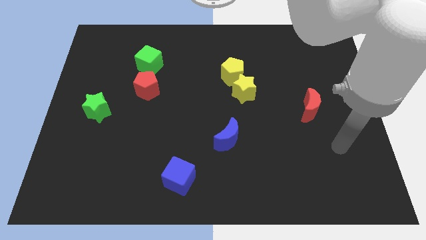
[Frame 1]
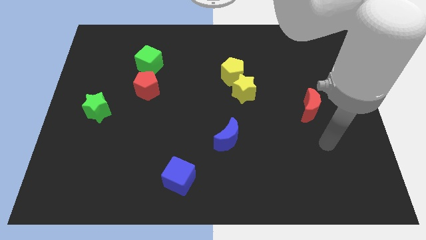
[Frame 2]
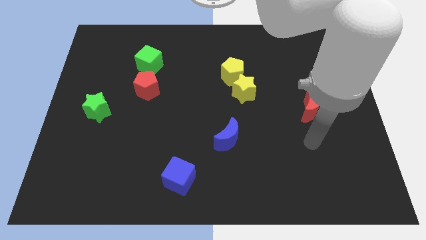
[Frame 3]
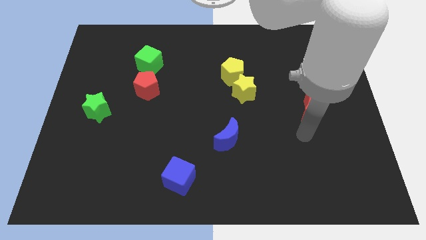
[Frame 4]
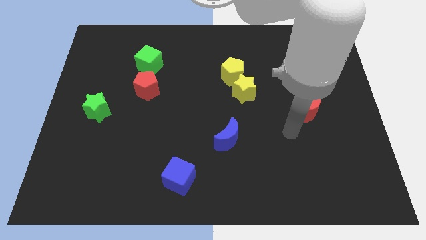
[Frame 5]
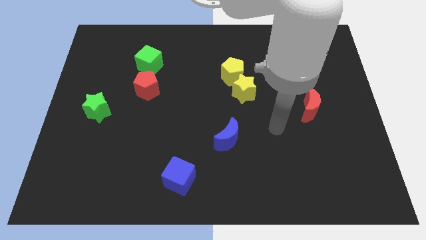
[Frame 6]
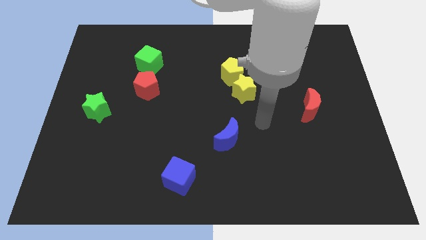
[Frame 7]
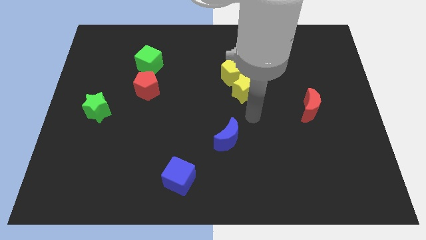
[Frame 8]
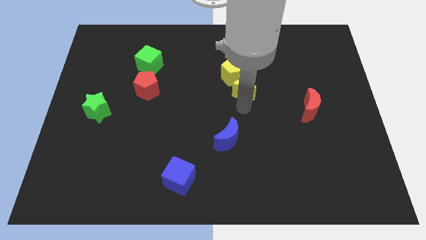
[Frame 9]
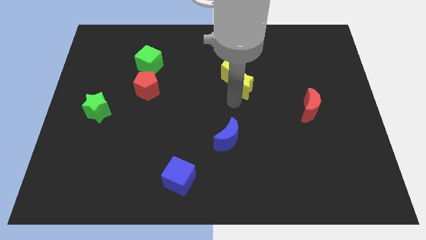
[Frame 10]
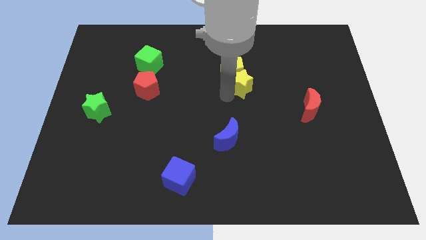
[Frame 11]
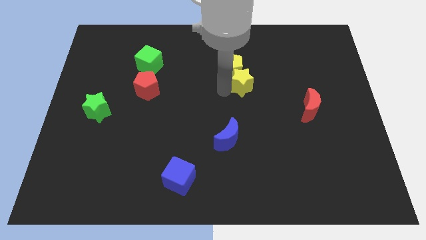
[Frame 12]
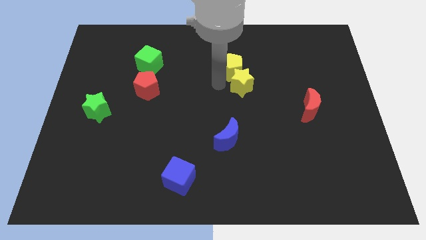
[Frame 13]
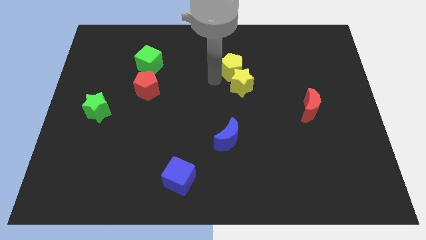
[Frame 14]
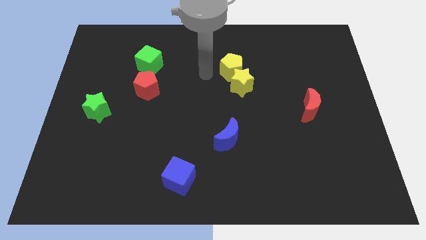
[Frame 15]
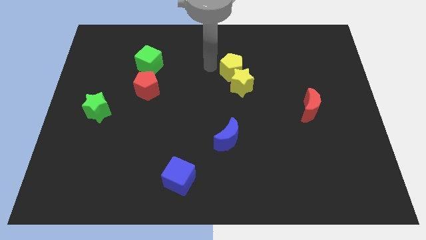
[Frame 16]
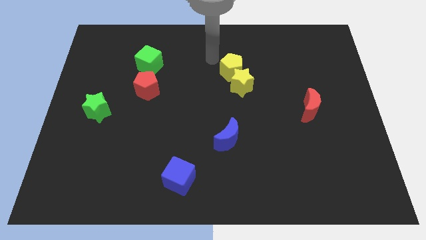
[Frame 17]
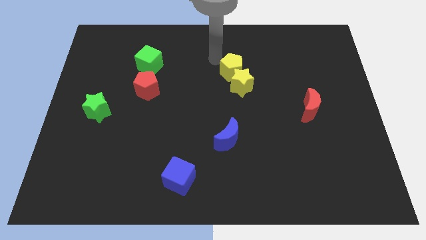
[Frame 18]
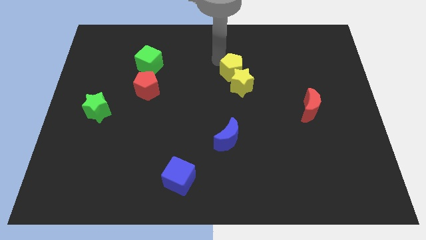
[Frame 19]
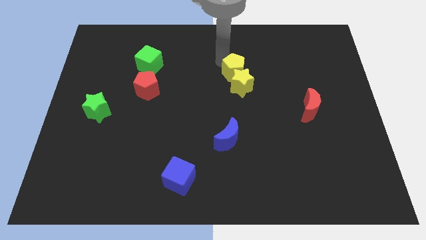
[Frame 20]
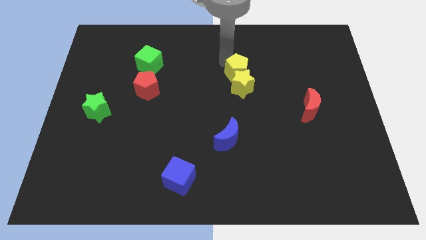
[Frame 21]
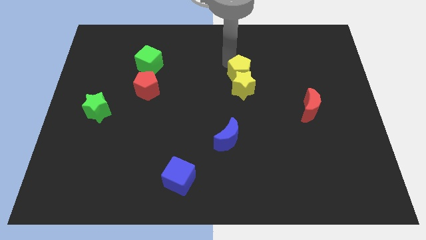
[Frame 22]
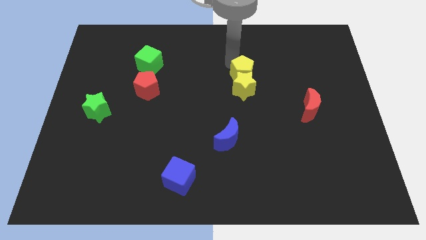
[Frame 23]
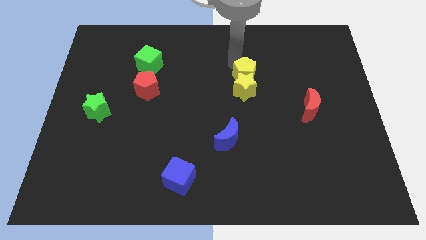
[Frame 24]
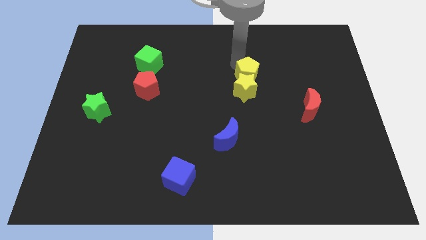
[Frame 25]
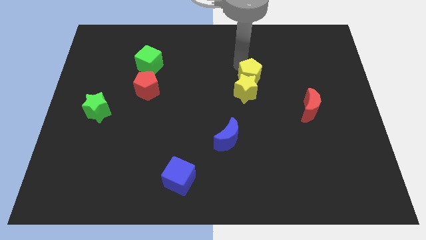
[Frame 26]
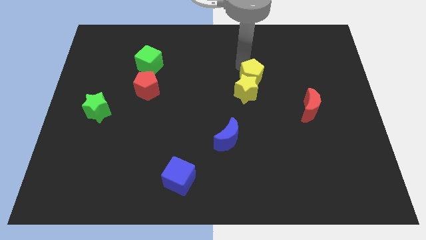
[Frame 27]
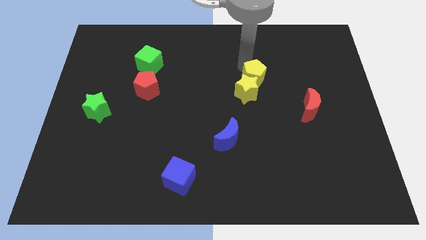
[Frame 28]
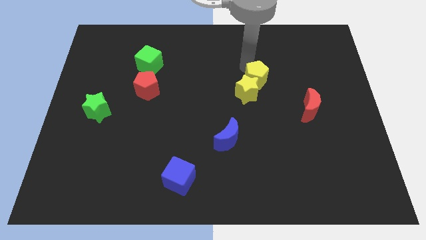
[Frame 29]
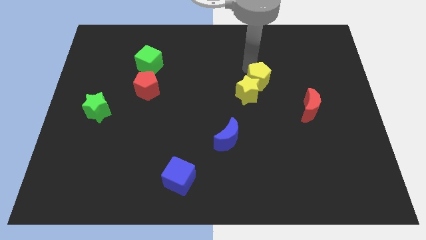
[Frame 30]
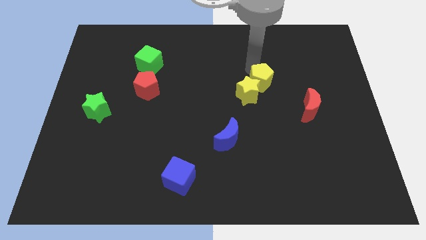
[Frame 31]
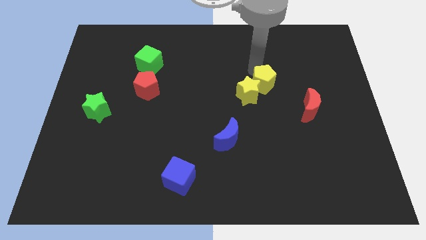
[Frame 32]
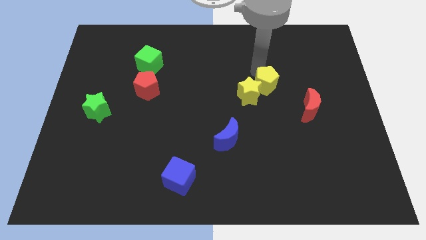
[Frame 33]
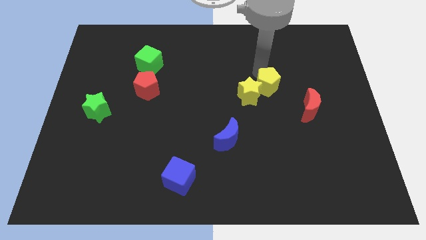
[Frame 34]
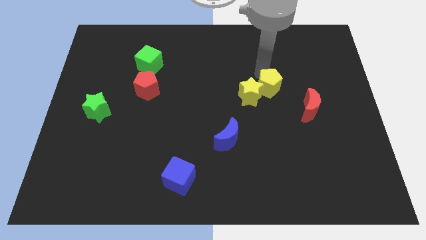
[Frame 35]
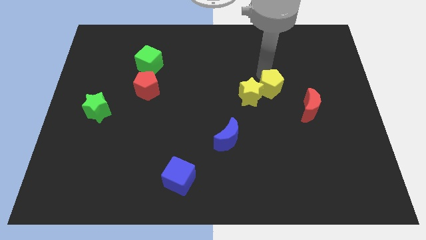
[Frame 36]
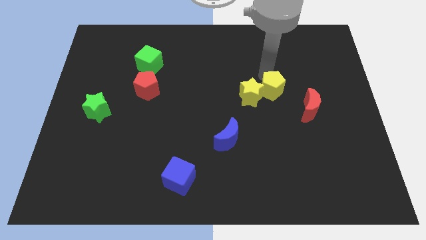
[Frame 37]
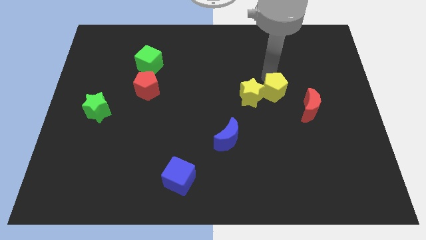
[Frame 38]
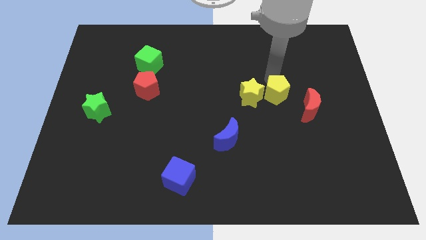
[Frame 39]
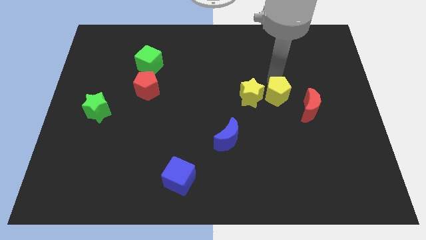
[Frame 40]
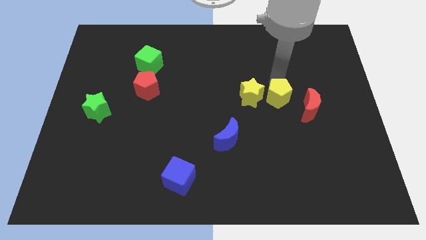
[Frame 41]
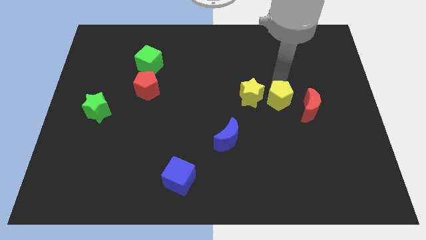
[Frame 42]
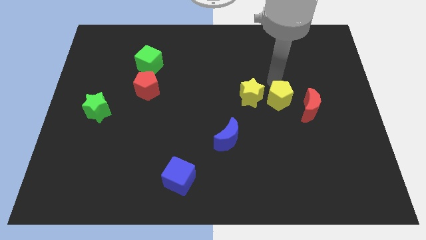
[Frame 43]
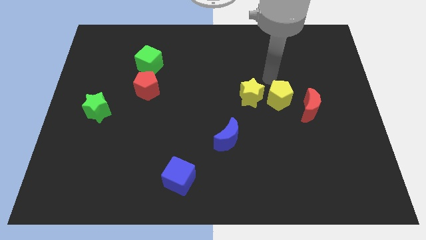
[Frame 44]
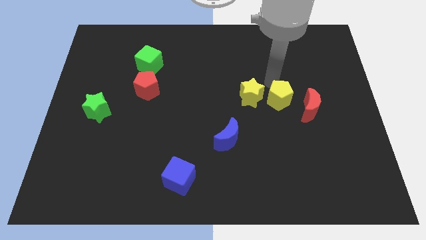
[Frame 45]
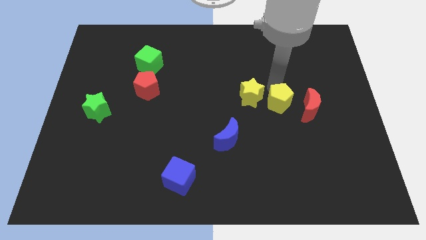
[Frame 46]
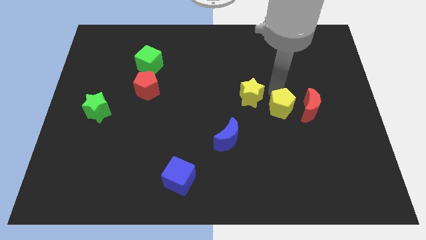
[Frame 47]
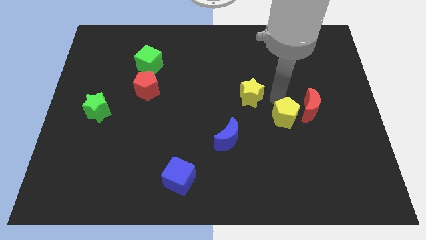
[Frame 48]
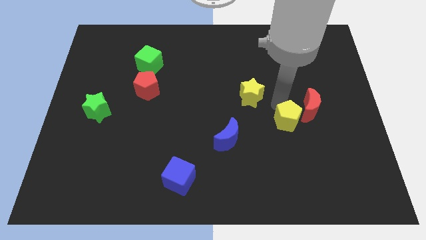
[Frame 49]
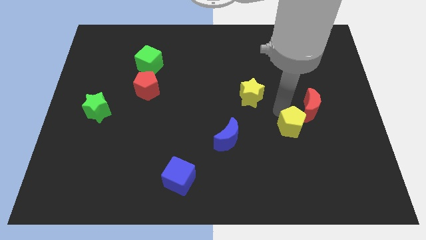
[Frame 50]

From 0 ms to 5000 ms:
push the yellow pentagon diagonally down and right

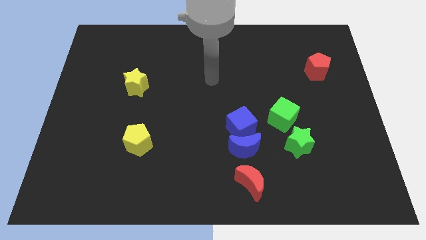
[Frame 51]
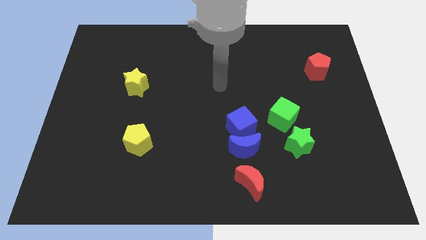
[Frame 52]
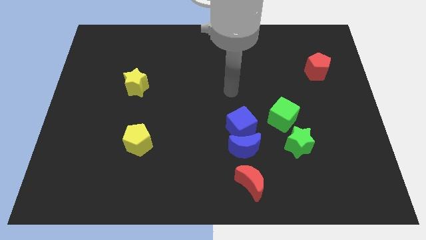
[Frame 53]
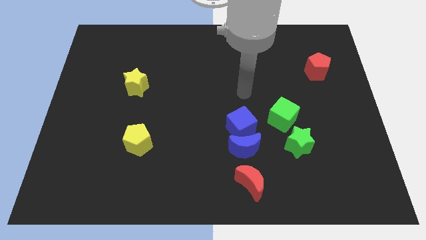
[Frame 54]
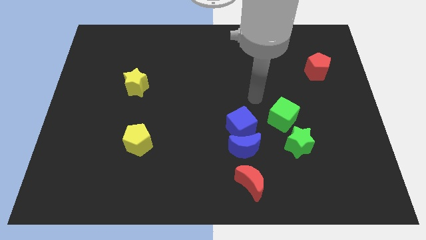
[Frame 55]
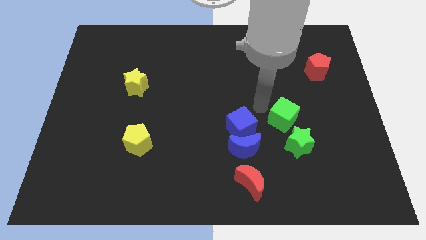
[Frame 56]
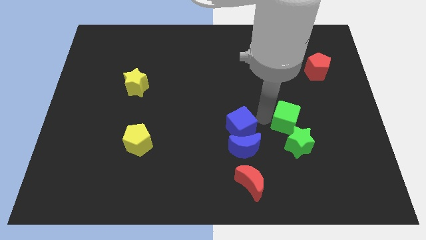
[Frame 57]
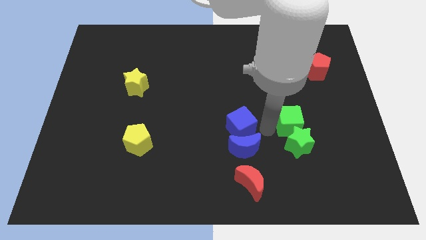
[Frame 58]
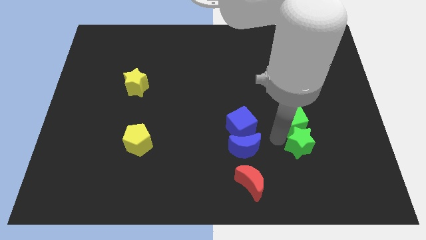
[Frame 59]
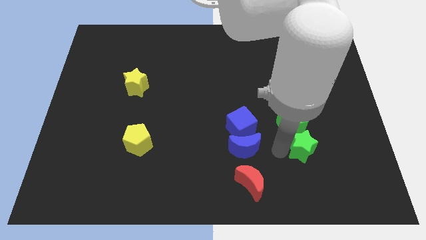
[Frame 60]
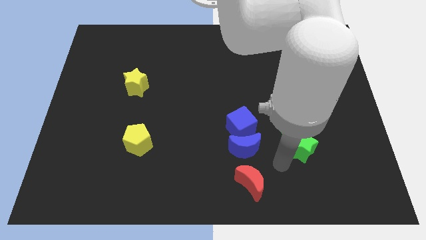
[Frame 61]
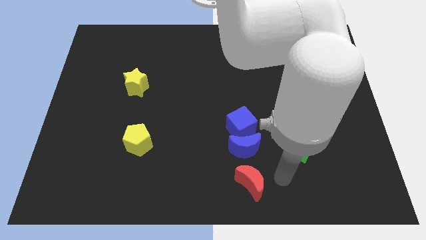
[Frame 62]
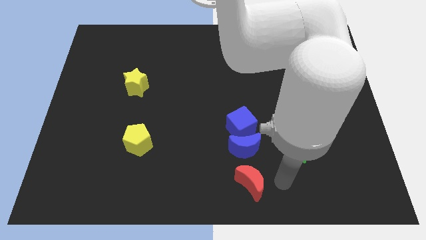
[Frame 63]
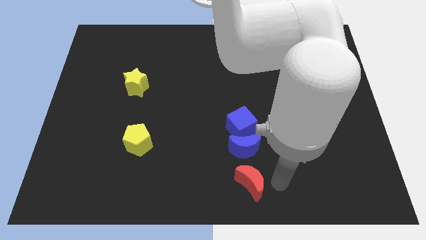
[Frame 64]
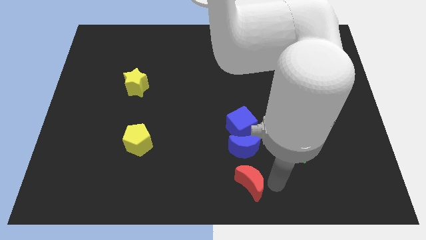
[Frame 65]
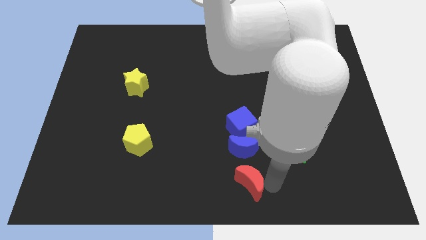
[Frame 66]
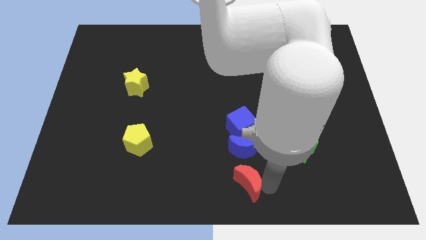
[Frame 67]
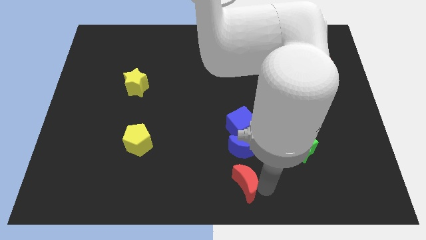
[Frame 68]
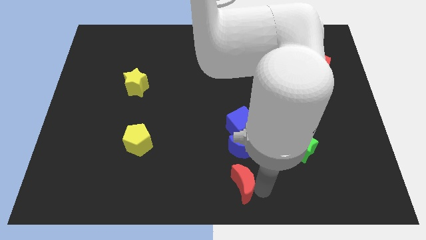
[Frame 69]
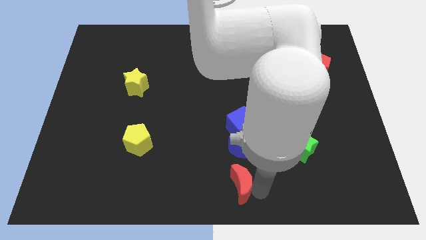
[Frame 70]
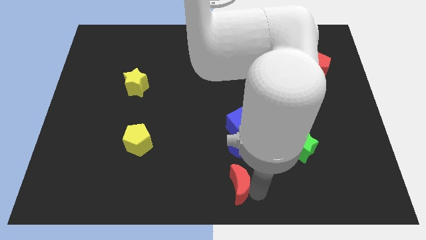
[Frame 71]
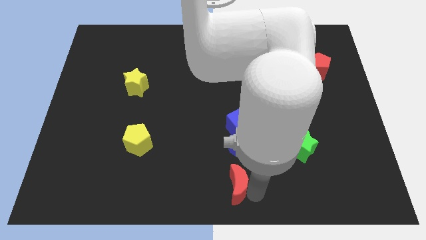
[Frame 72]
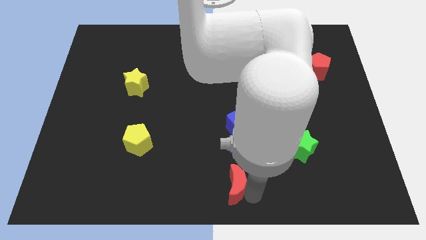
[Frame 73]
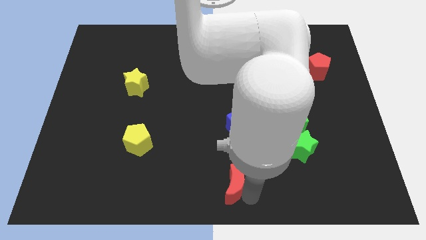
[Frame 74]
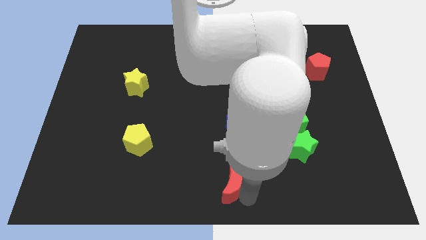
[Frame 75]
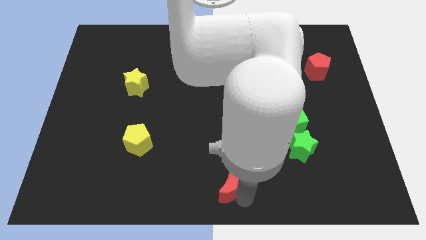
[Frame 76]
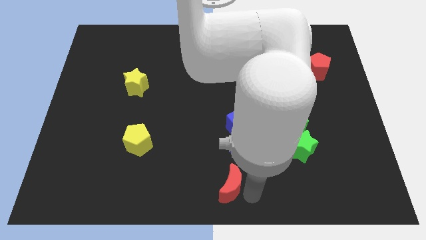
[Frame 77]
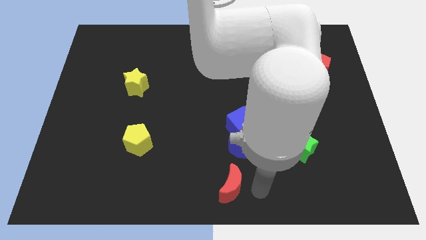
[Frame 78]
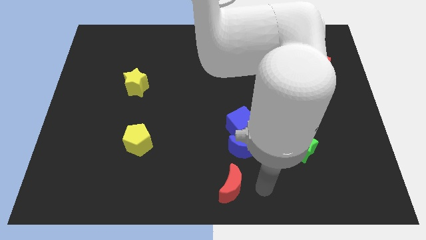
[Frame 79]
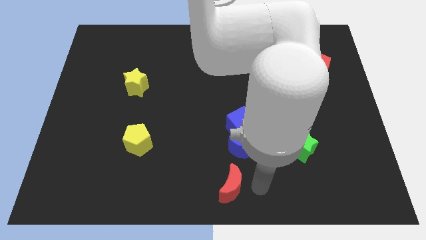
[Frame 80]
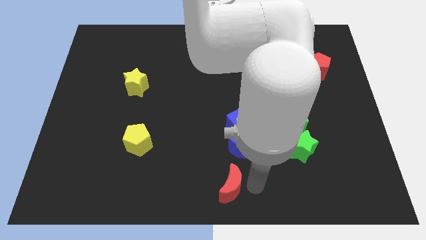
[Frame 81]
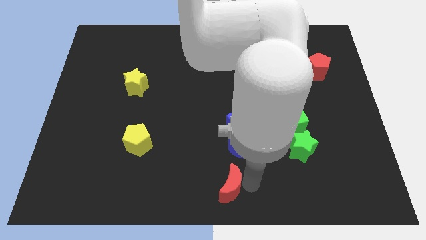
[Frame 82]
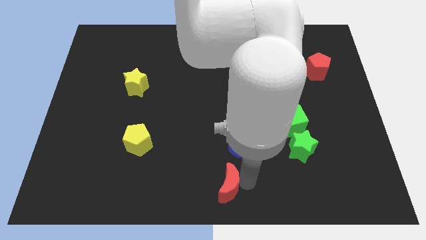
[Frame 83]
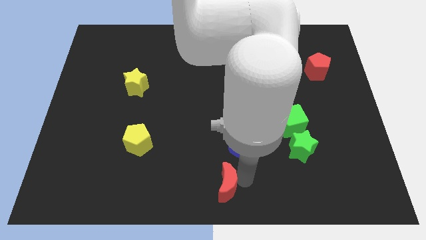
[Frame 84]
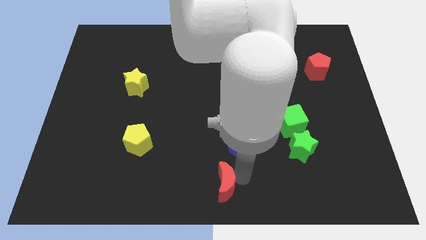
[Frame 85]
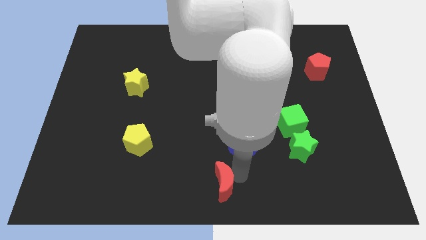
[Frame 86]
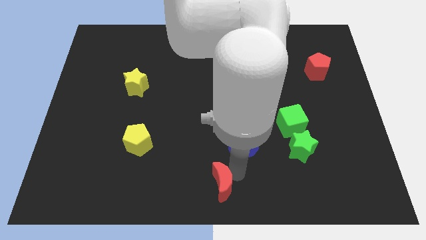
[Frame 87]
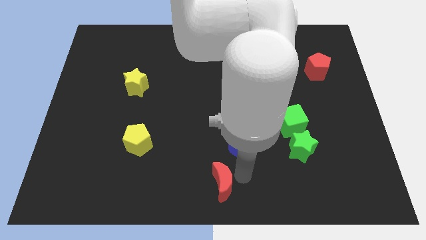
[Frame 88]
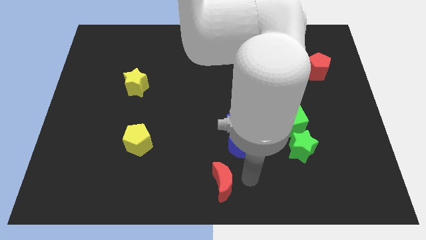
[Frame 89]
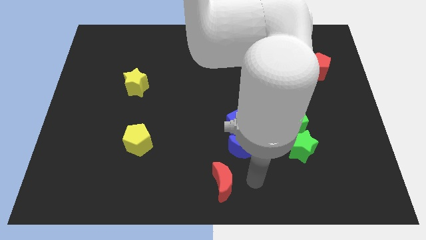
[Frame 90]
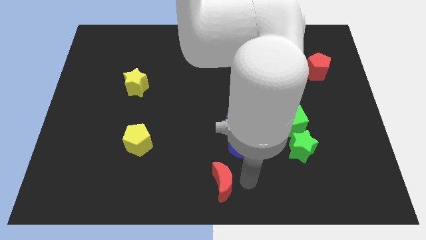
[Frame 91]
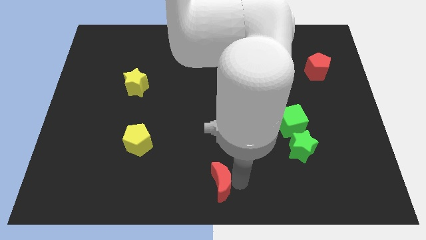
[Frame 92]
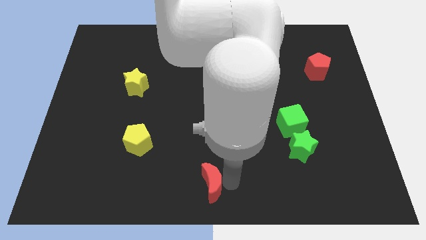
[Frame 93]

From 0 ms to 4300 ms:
slide the red moon left somewhat
